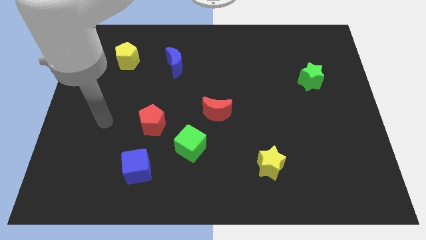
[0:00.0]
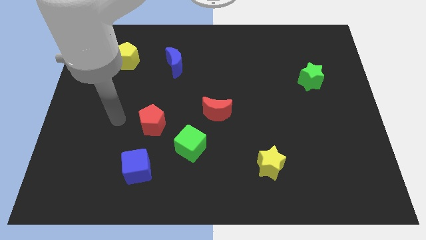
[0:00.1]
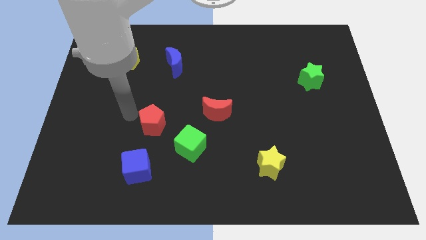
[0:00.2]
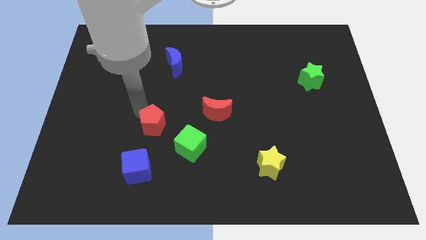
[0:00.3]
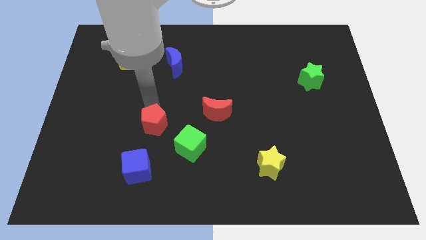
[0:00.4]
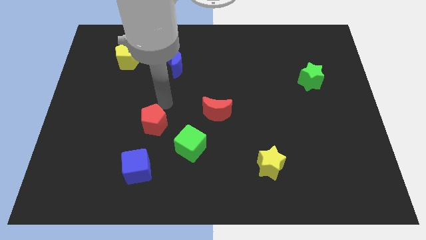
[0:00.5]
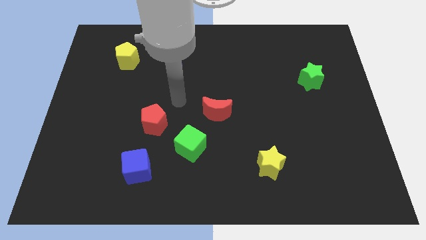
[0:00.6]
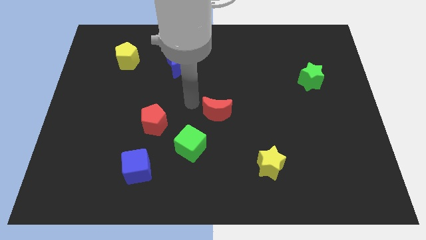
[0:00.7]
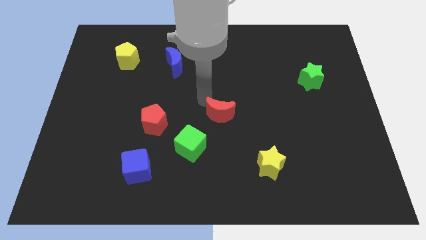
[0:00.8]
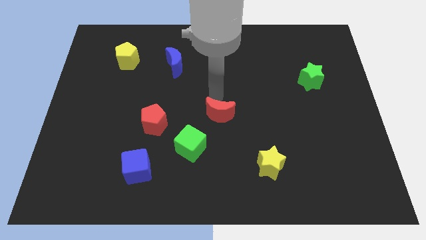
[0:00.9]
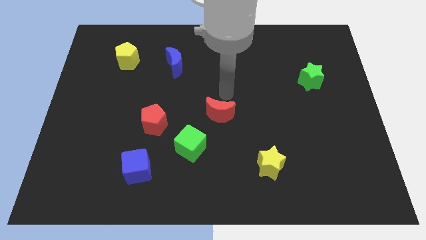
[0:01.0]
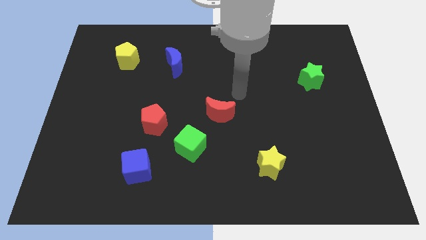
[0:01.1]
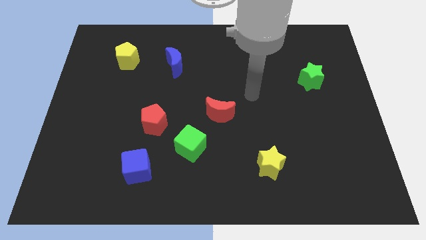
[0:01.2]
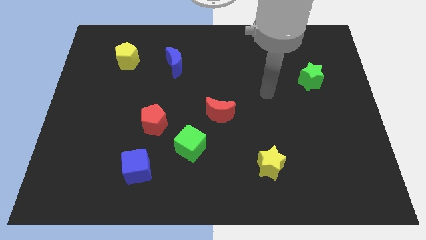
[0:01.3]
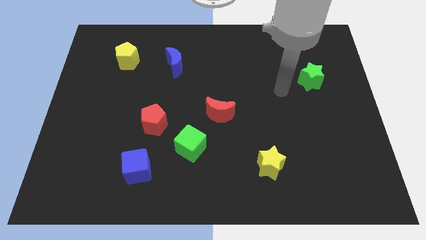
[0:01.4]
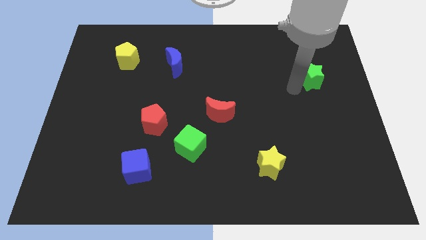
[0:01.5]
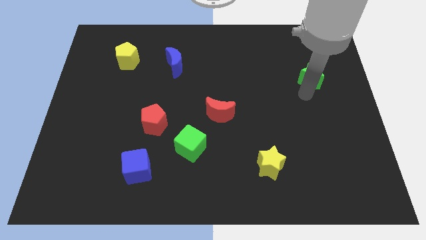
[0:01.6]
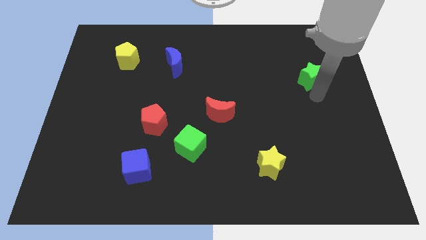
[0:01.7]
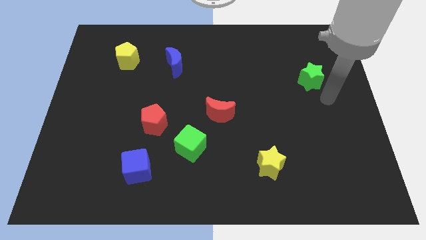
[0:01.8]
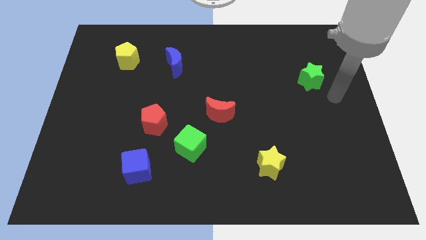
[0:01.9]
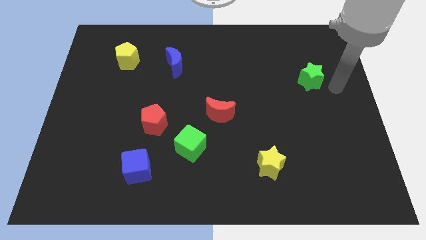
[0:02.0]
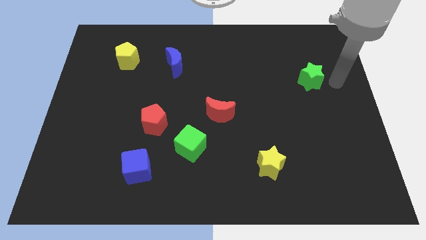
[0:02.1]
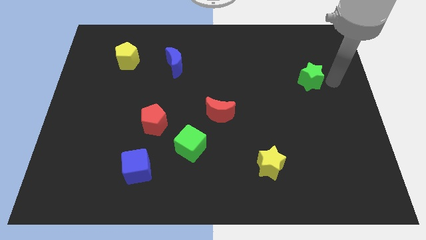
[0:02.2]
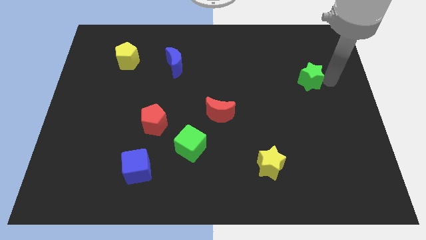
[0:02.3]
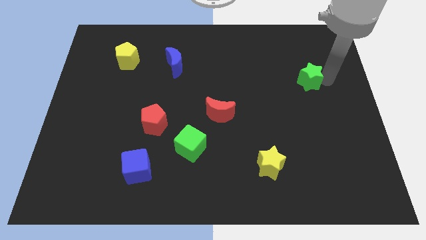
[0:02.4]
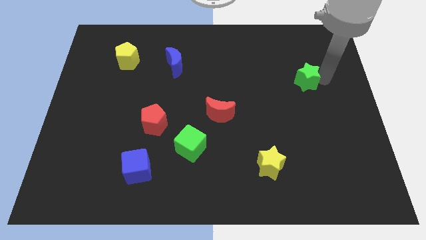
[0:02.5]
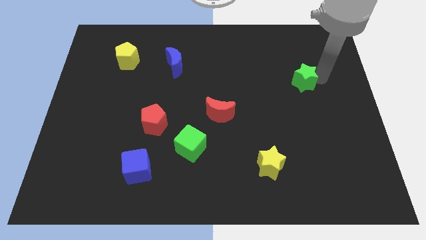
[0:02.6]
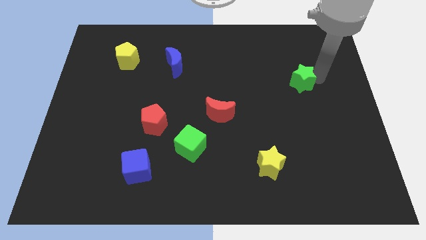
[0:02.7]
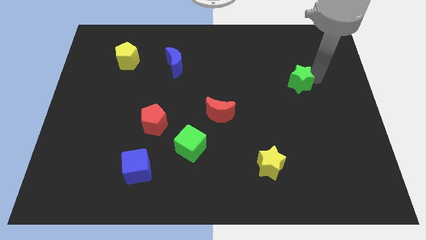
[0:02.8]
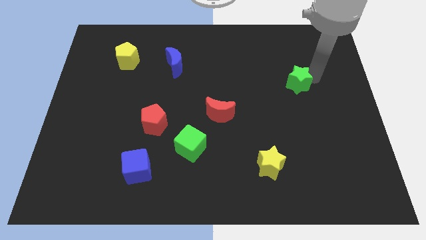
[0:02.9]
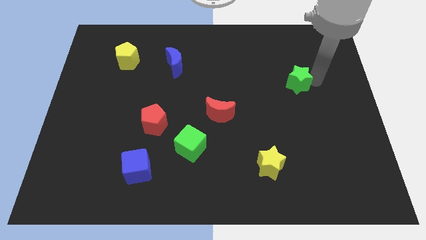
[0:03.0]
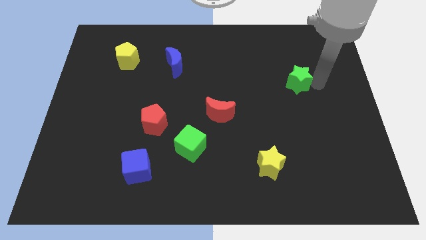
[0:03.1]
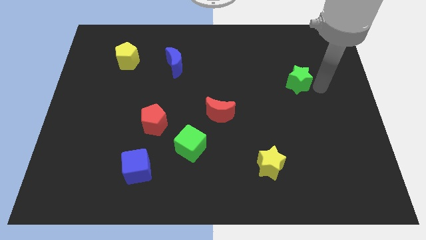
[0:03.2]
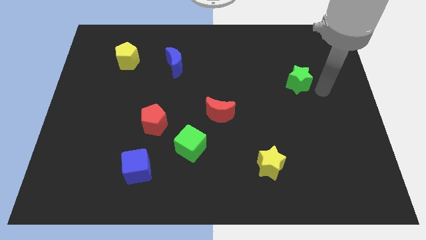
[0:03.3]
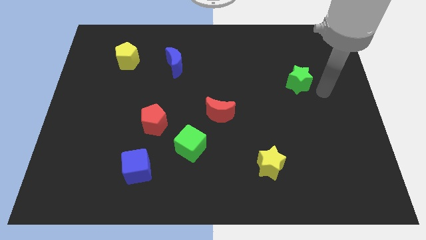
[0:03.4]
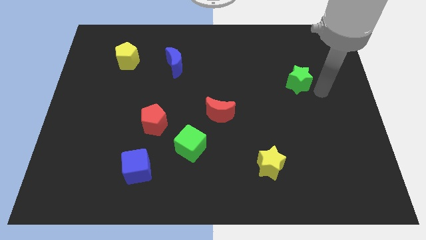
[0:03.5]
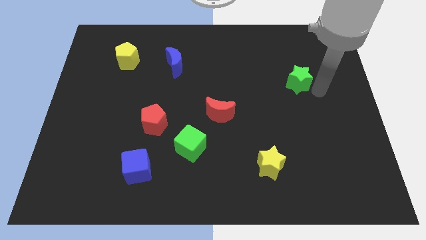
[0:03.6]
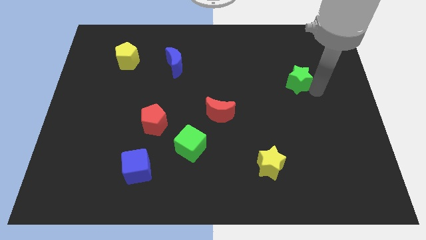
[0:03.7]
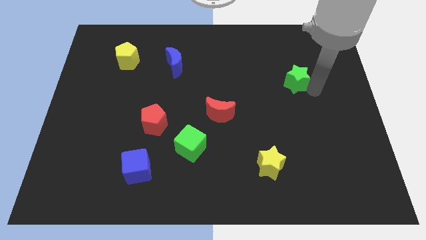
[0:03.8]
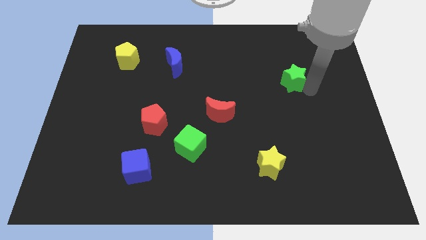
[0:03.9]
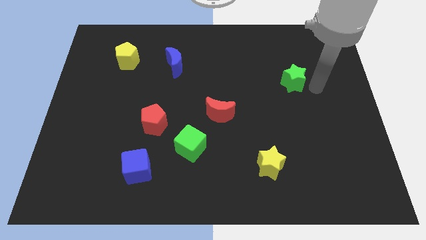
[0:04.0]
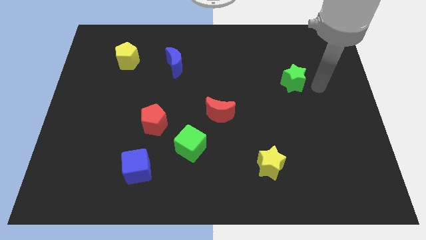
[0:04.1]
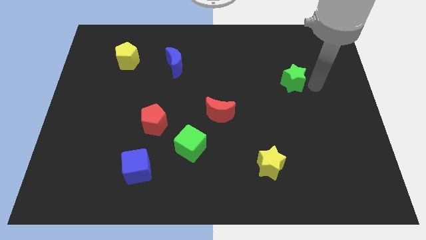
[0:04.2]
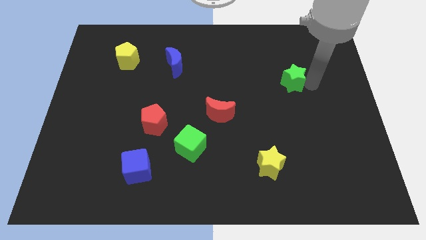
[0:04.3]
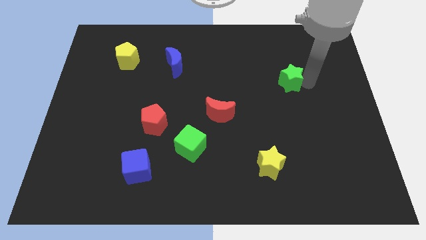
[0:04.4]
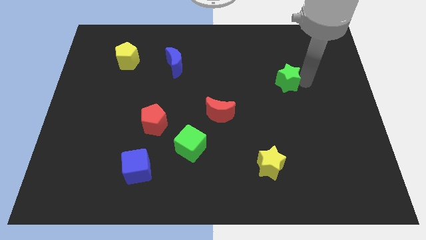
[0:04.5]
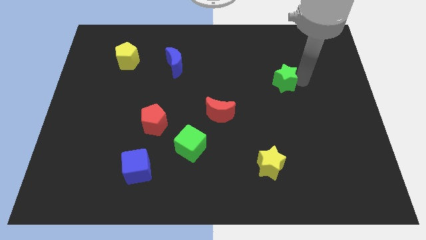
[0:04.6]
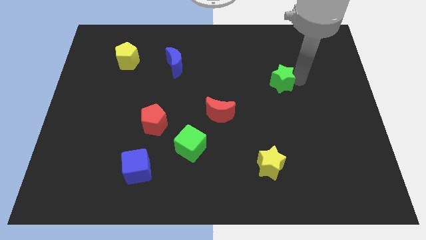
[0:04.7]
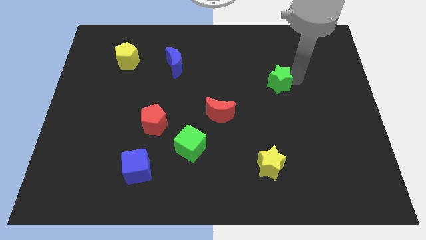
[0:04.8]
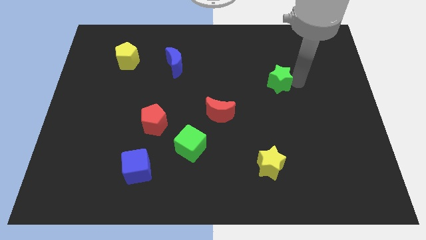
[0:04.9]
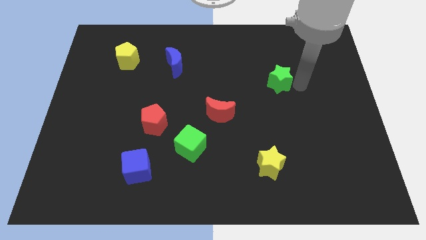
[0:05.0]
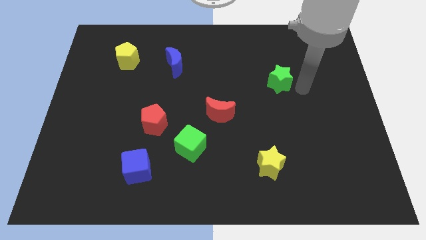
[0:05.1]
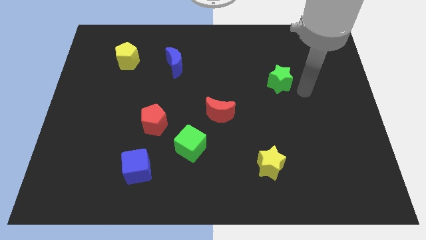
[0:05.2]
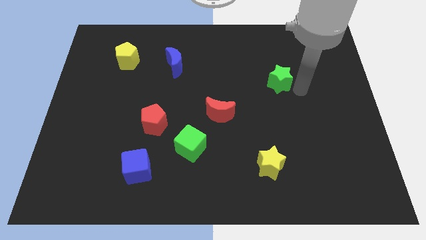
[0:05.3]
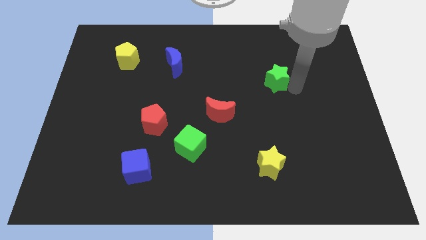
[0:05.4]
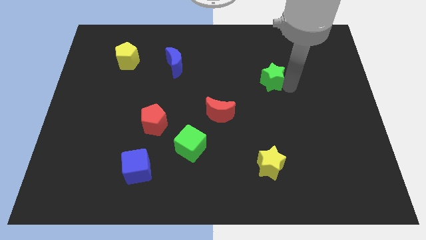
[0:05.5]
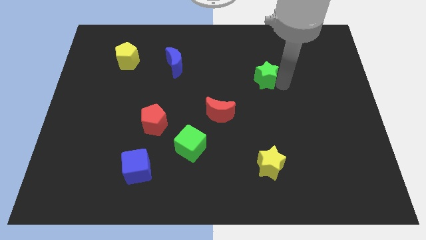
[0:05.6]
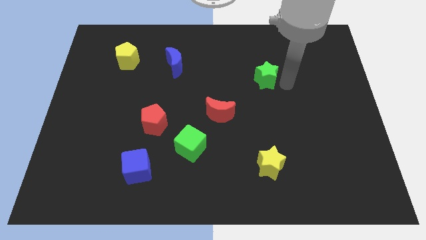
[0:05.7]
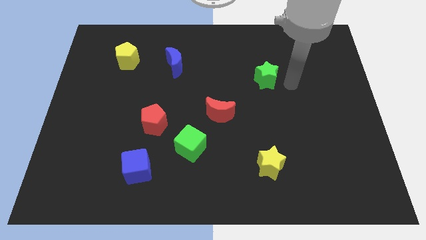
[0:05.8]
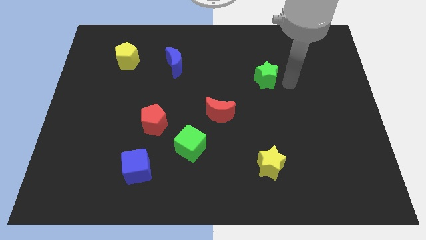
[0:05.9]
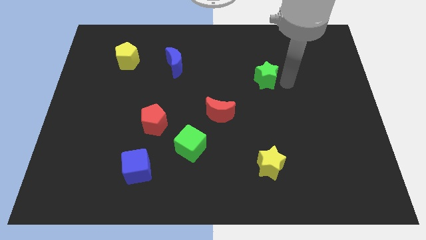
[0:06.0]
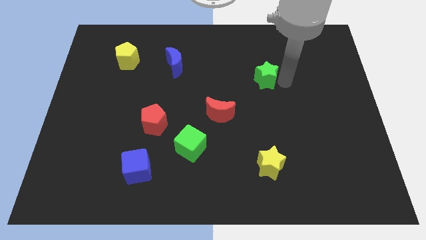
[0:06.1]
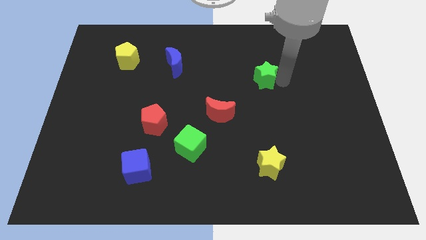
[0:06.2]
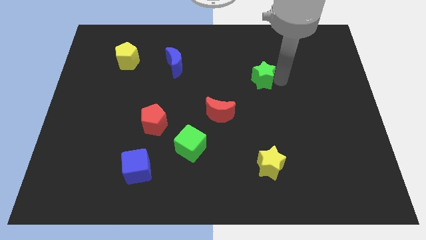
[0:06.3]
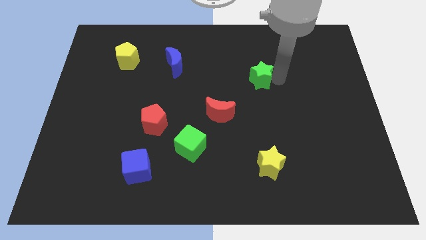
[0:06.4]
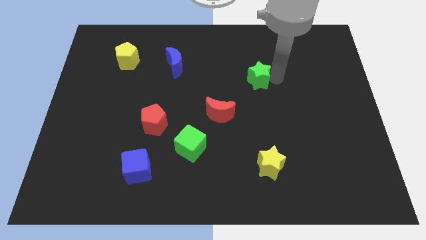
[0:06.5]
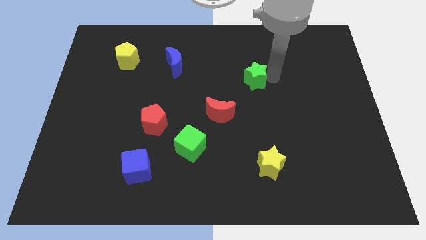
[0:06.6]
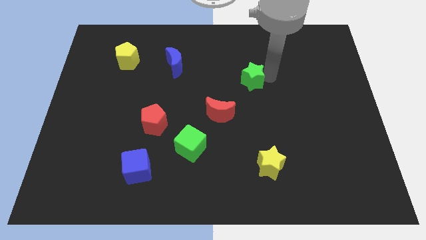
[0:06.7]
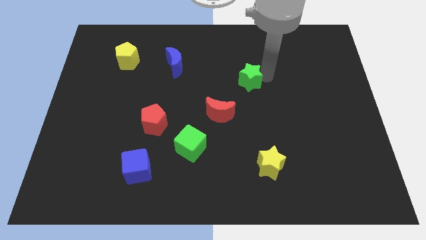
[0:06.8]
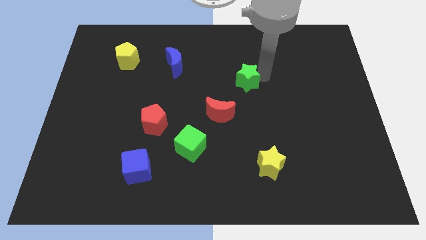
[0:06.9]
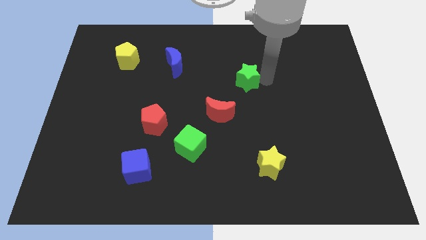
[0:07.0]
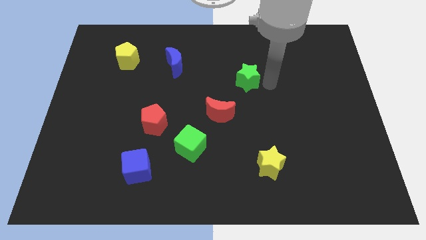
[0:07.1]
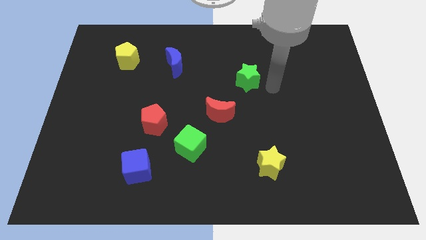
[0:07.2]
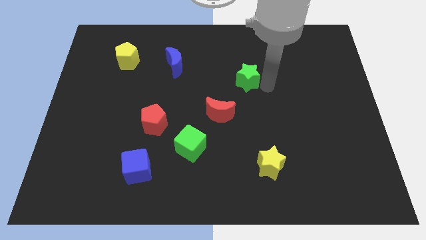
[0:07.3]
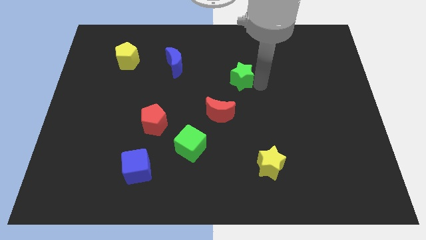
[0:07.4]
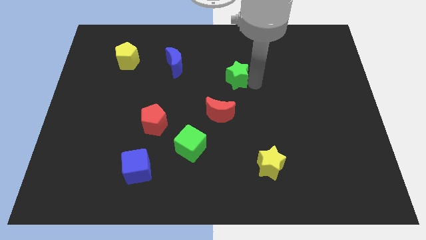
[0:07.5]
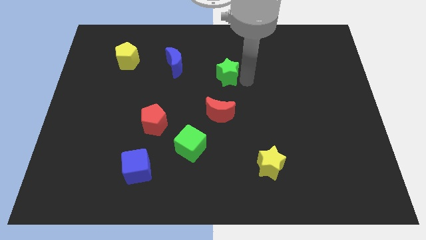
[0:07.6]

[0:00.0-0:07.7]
slide the green star to the left

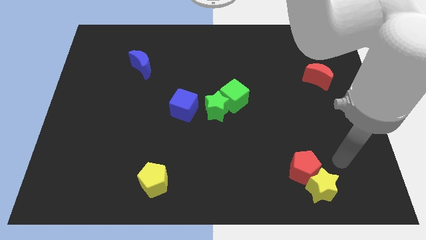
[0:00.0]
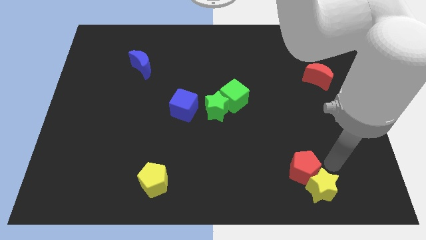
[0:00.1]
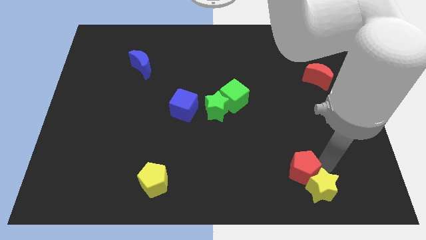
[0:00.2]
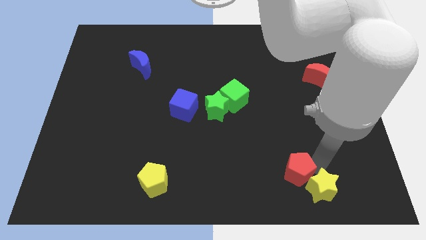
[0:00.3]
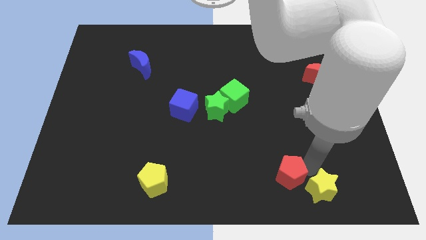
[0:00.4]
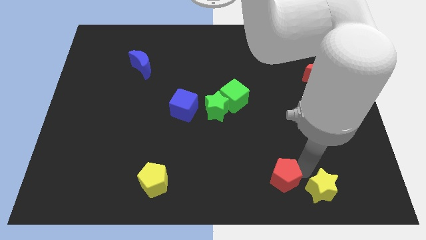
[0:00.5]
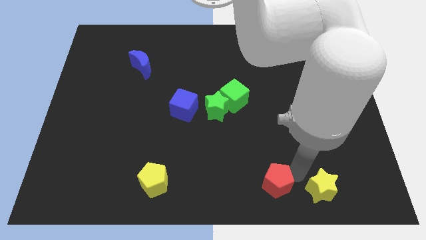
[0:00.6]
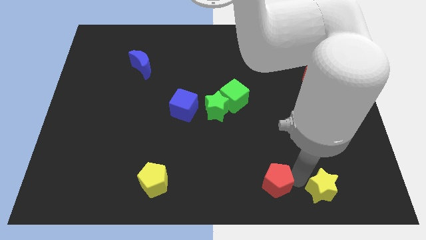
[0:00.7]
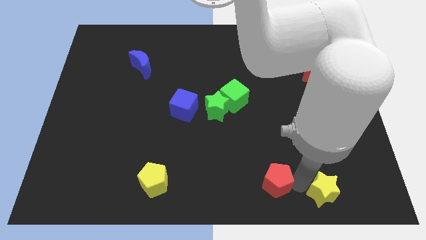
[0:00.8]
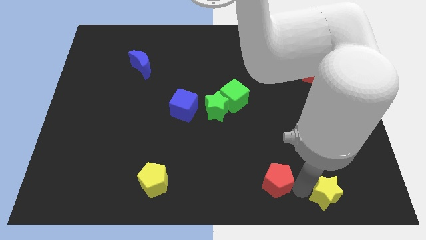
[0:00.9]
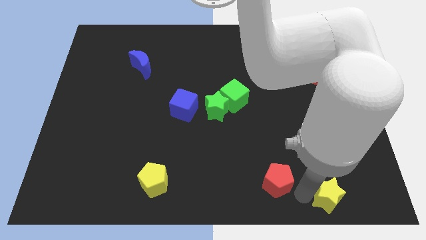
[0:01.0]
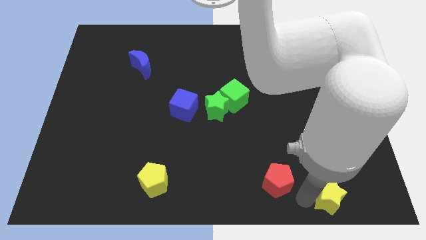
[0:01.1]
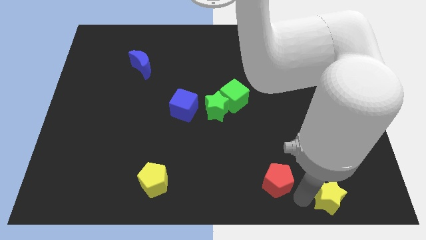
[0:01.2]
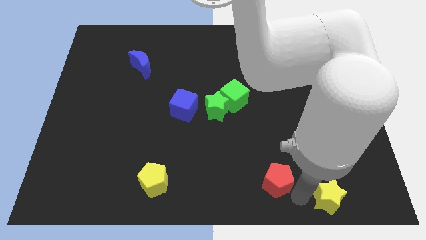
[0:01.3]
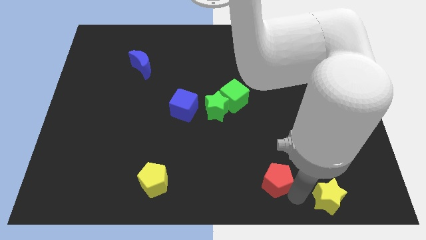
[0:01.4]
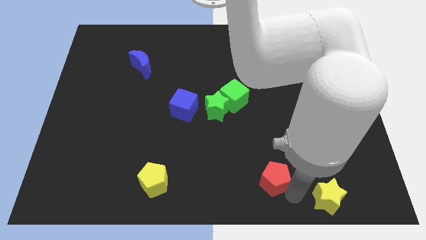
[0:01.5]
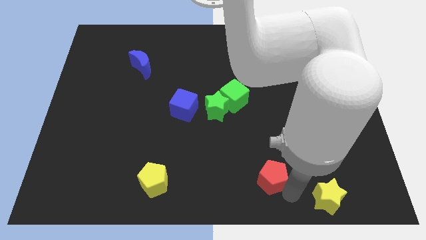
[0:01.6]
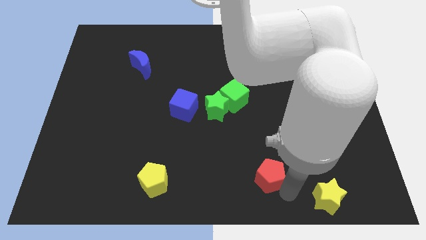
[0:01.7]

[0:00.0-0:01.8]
move the red pentagon to the left somewhat
